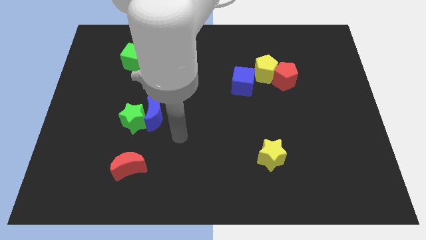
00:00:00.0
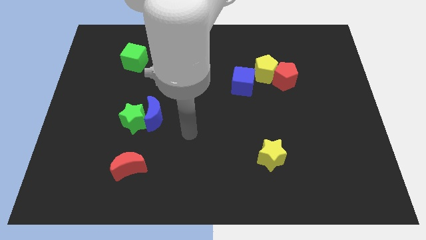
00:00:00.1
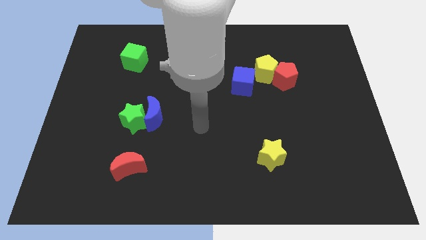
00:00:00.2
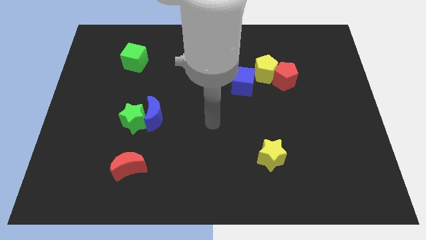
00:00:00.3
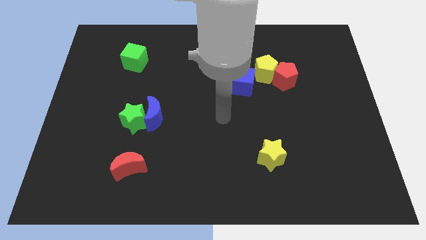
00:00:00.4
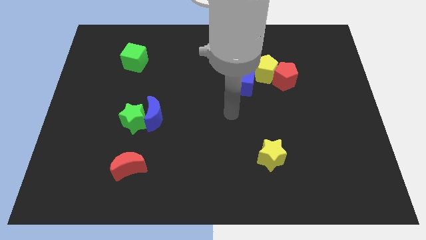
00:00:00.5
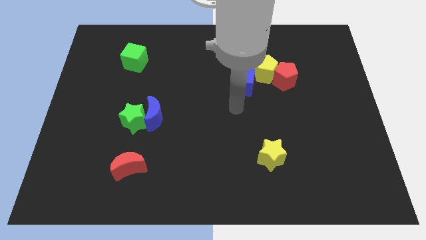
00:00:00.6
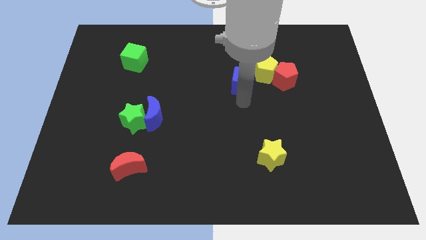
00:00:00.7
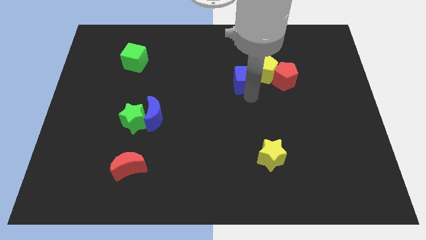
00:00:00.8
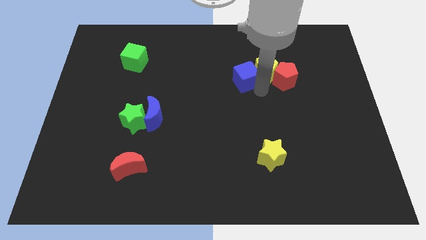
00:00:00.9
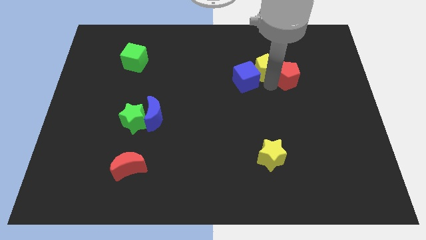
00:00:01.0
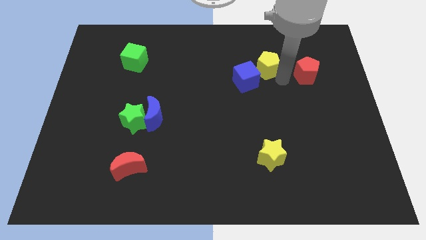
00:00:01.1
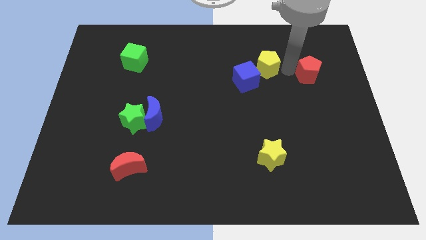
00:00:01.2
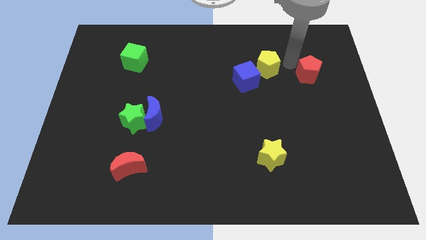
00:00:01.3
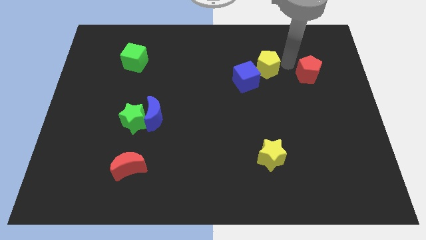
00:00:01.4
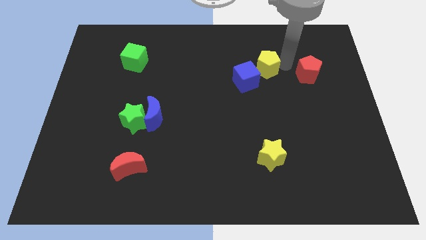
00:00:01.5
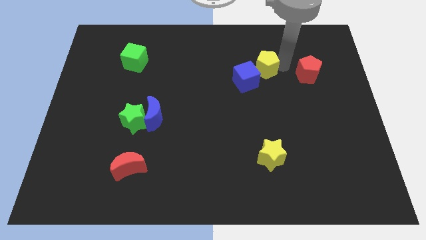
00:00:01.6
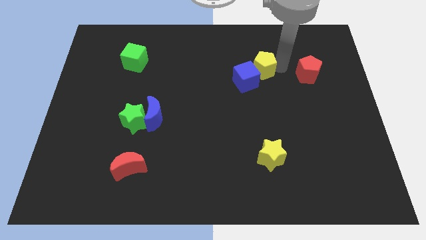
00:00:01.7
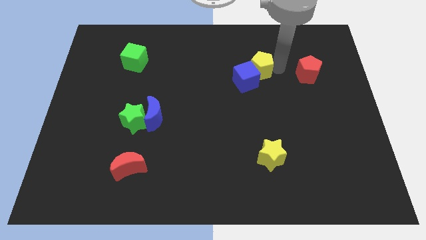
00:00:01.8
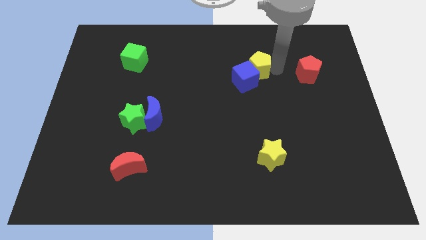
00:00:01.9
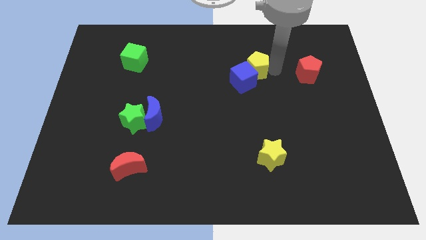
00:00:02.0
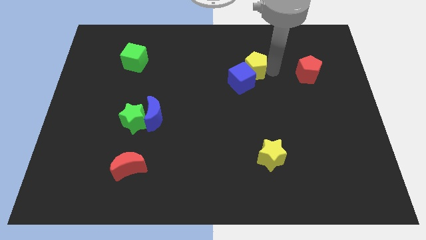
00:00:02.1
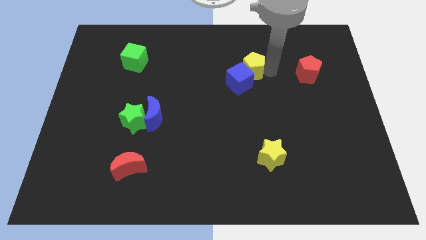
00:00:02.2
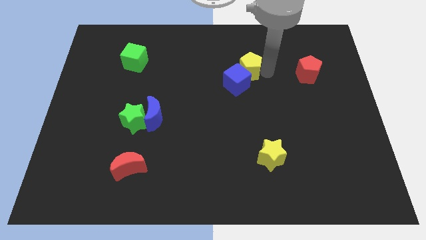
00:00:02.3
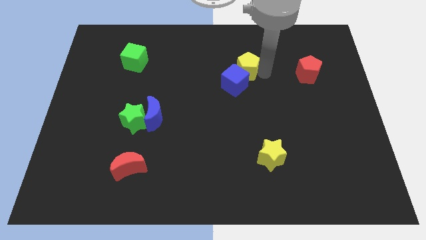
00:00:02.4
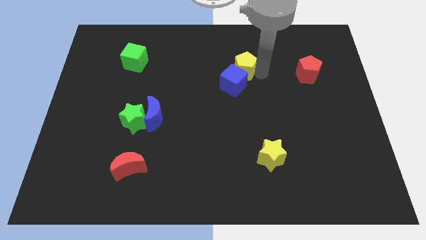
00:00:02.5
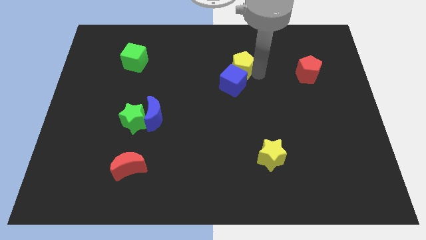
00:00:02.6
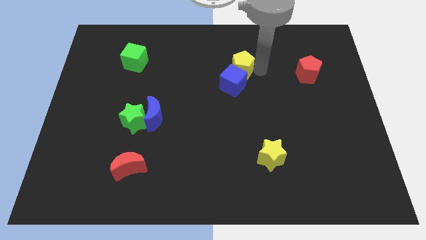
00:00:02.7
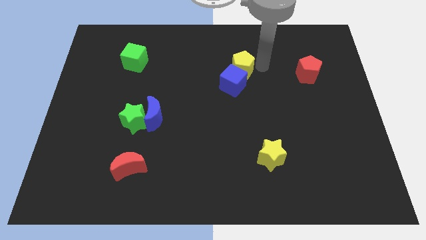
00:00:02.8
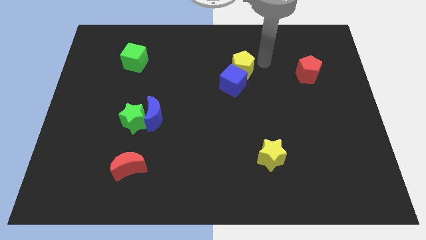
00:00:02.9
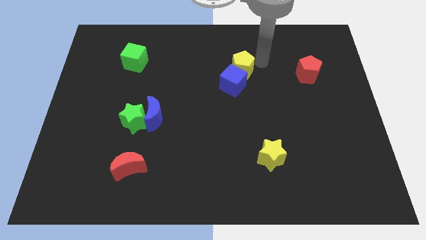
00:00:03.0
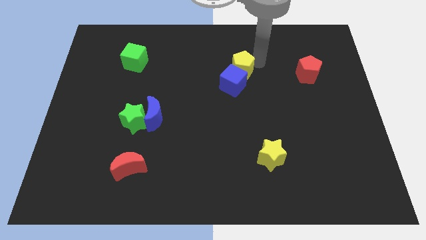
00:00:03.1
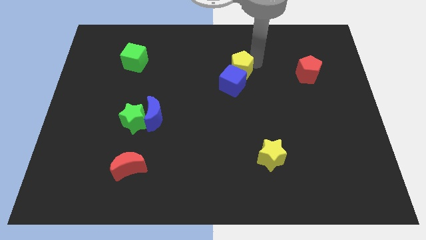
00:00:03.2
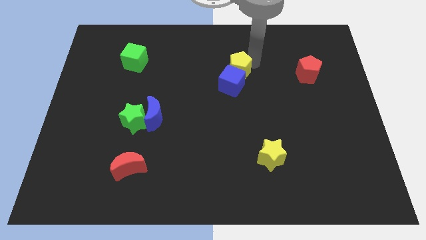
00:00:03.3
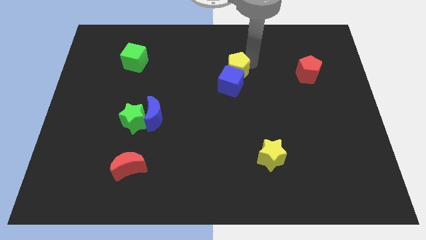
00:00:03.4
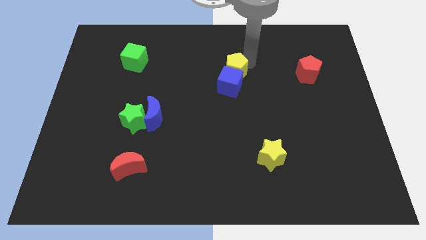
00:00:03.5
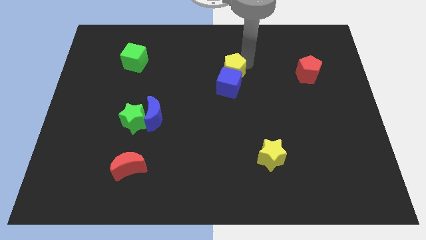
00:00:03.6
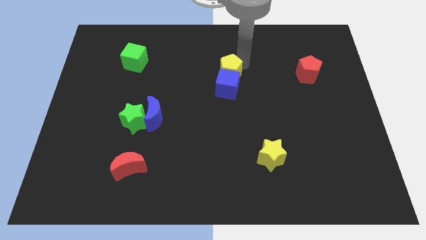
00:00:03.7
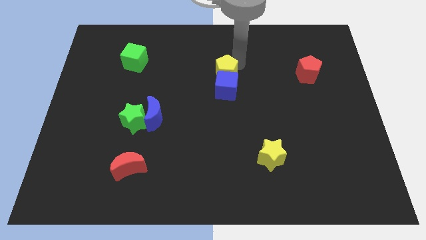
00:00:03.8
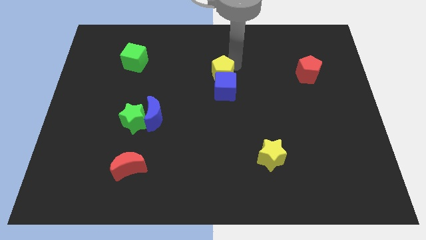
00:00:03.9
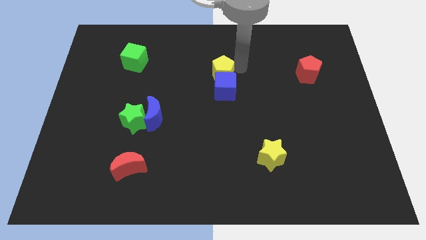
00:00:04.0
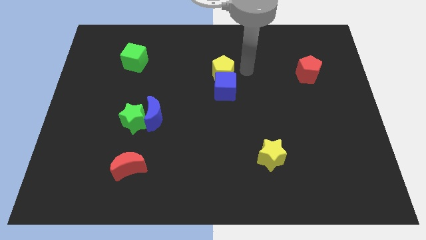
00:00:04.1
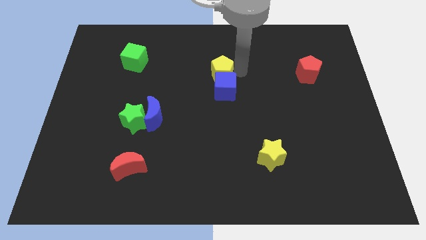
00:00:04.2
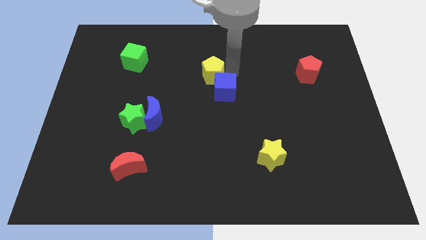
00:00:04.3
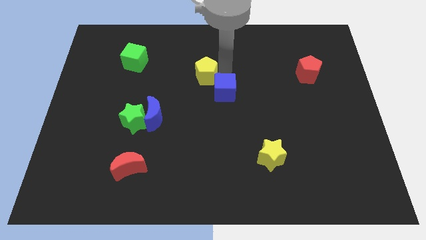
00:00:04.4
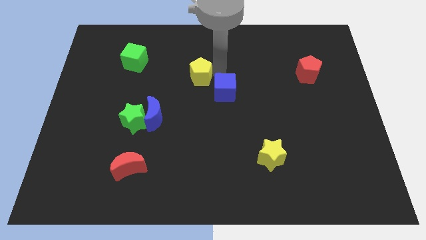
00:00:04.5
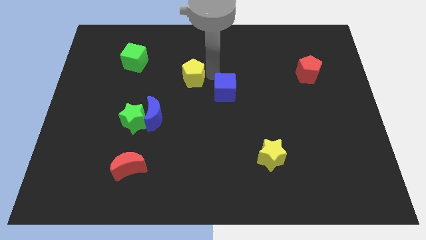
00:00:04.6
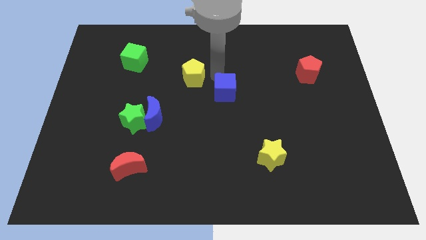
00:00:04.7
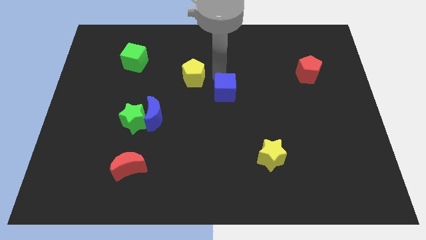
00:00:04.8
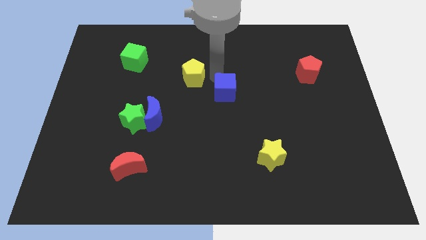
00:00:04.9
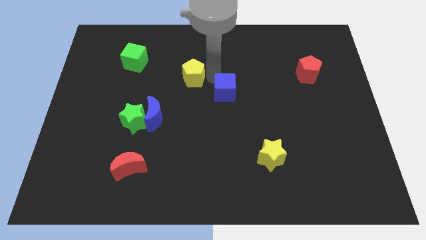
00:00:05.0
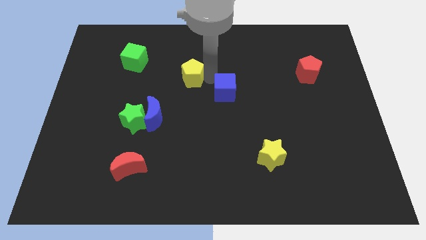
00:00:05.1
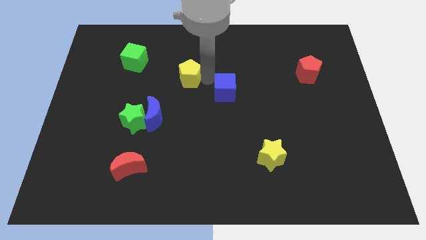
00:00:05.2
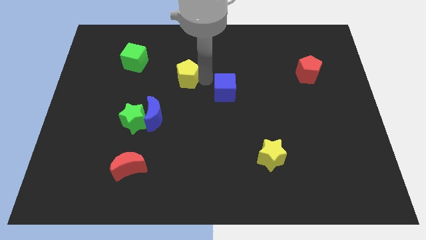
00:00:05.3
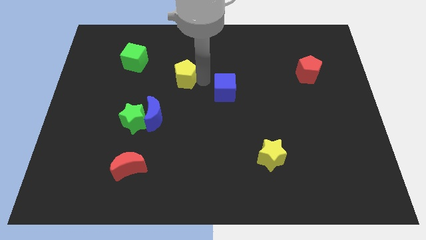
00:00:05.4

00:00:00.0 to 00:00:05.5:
slide the yellow pentagon to the left

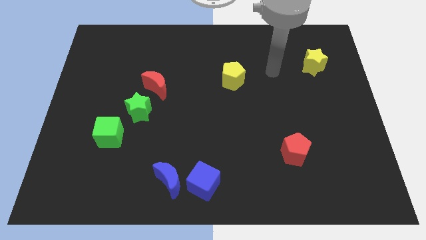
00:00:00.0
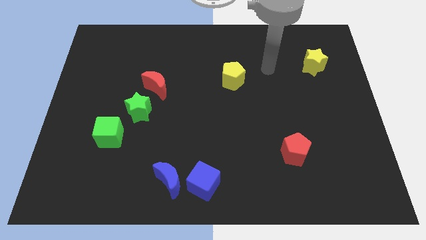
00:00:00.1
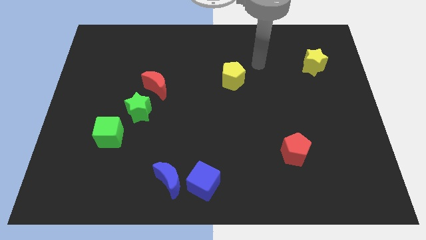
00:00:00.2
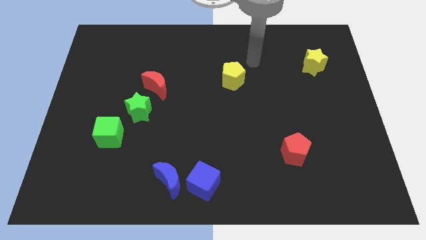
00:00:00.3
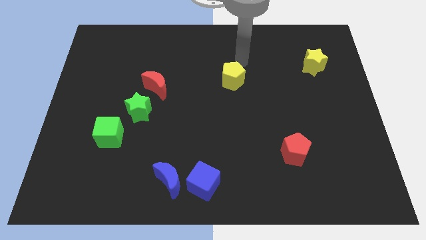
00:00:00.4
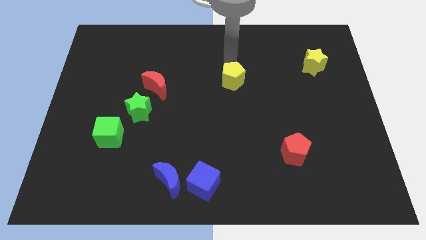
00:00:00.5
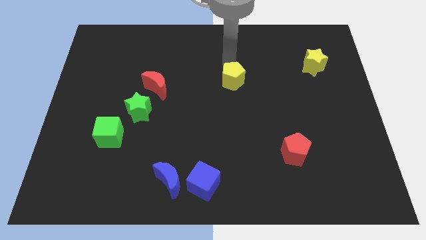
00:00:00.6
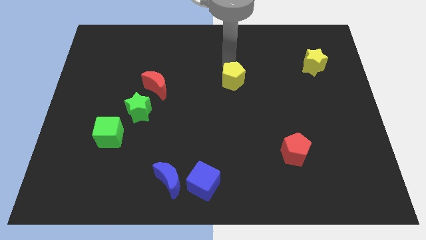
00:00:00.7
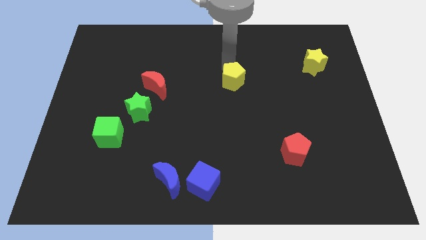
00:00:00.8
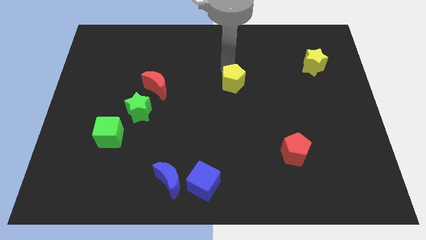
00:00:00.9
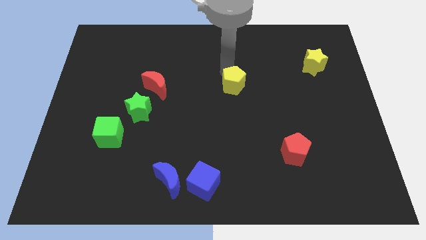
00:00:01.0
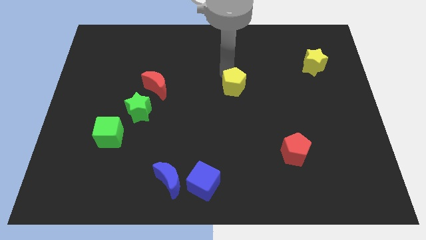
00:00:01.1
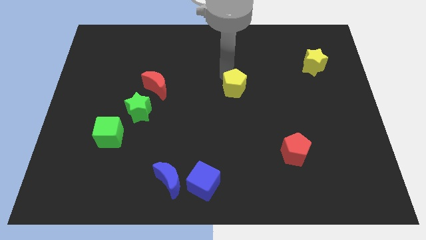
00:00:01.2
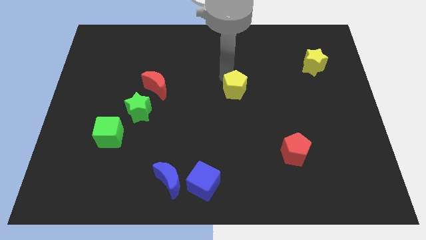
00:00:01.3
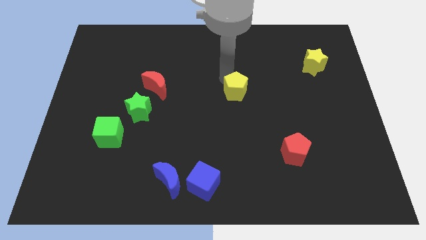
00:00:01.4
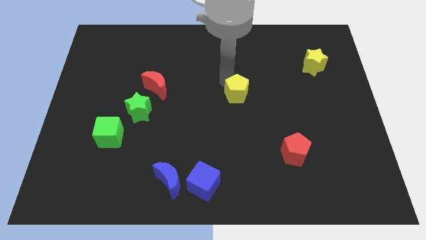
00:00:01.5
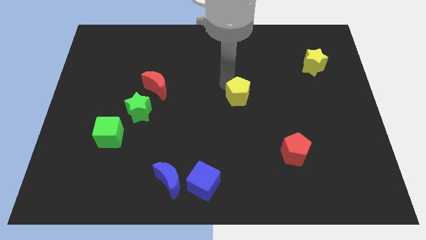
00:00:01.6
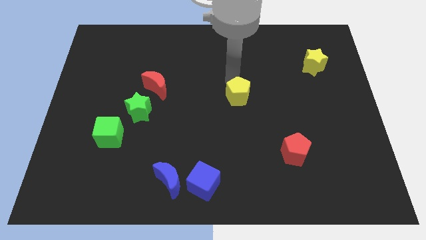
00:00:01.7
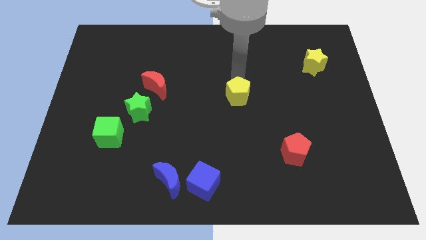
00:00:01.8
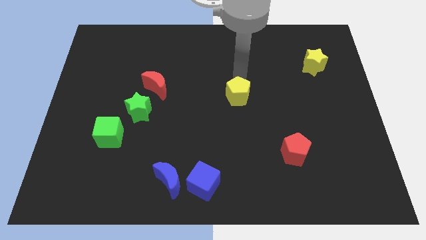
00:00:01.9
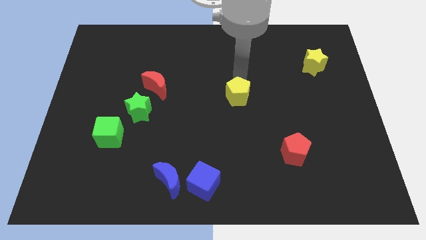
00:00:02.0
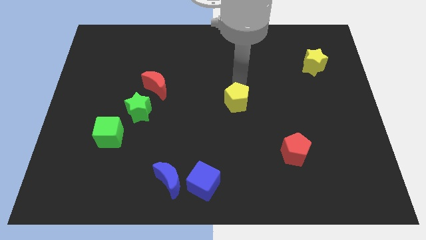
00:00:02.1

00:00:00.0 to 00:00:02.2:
slightly move the yellow pentagon downwards

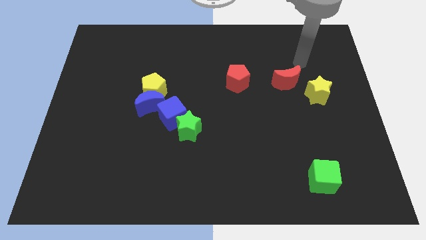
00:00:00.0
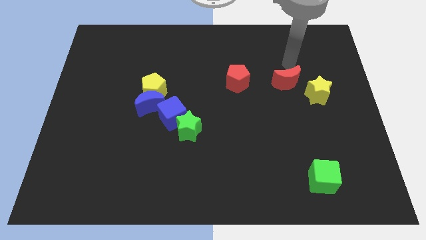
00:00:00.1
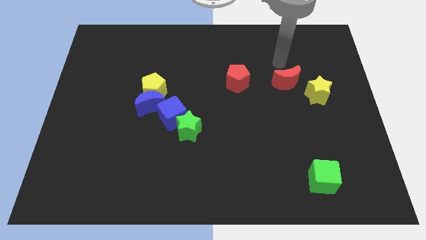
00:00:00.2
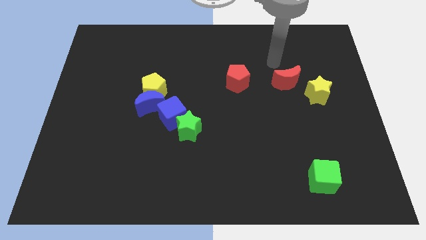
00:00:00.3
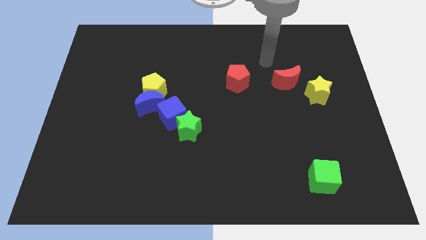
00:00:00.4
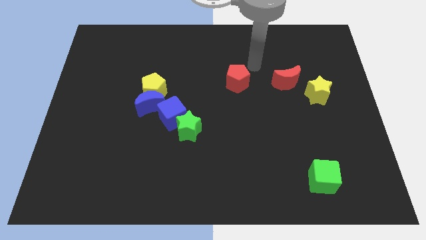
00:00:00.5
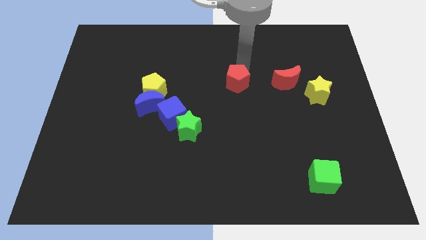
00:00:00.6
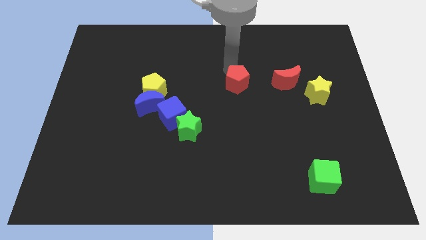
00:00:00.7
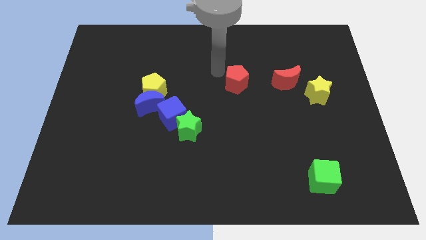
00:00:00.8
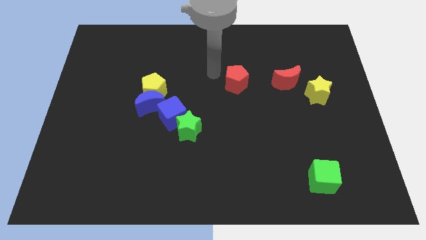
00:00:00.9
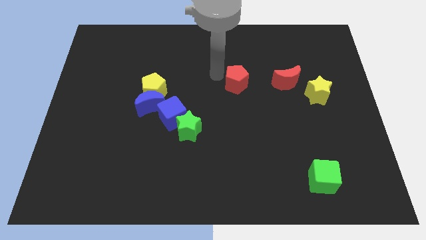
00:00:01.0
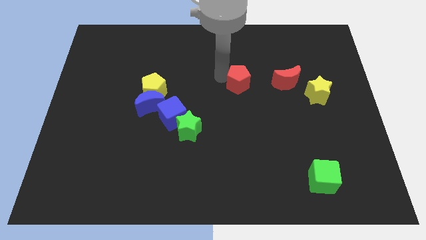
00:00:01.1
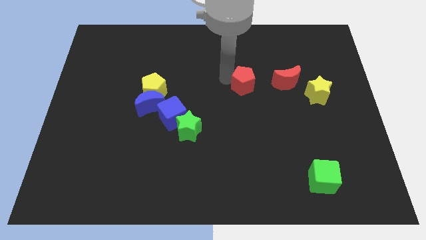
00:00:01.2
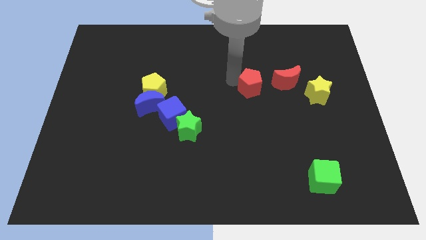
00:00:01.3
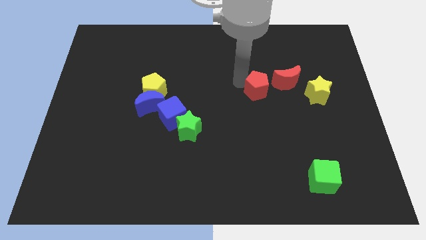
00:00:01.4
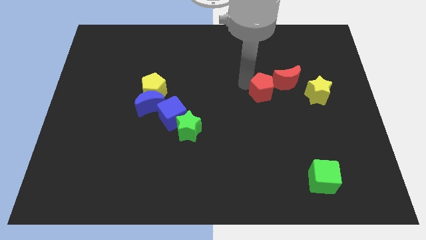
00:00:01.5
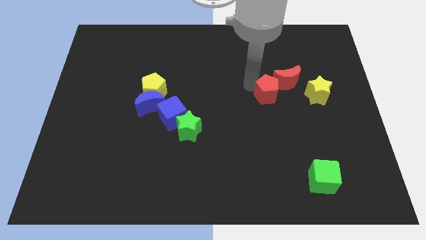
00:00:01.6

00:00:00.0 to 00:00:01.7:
move the red pentagon down and to the right slightly
